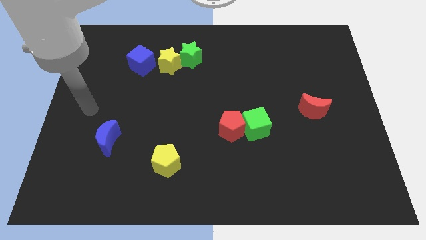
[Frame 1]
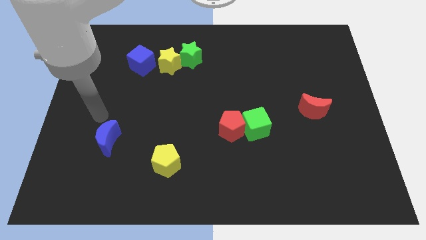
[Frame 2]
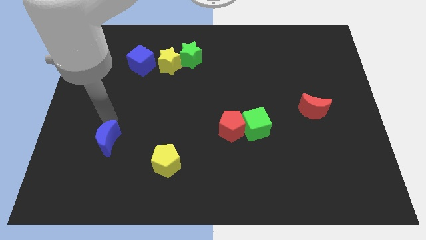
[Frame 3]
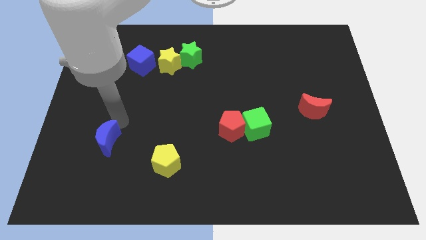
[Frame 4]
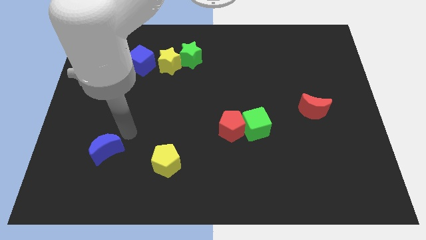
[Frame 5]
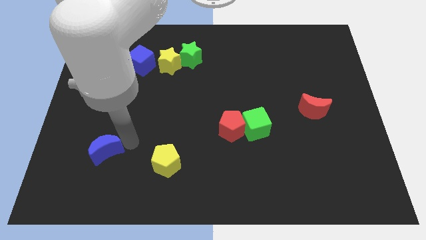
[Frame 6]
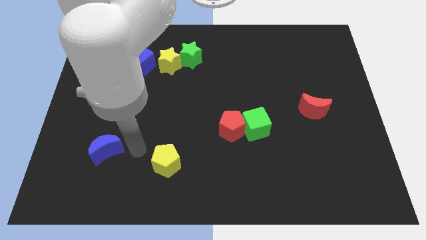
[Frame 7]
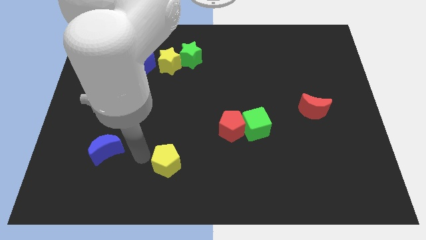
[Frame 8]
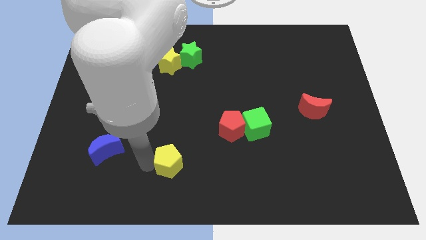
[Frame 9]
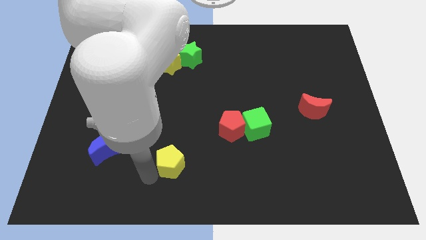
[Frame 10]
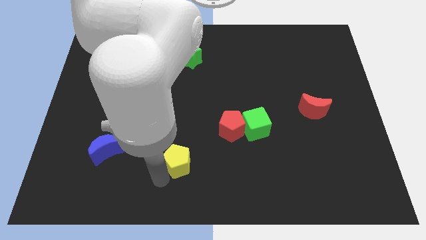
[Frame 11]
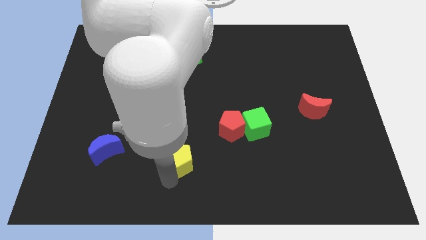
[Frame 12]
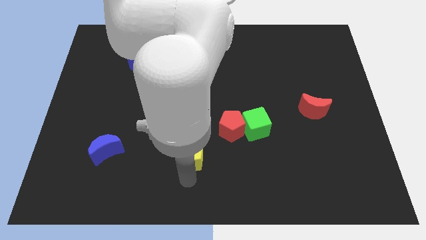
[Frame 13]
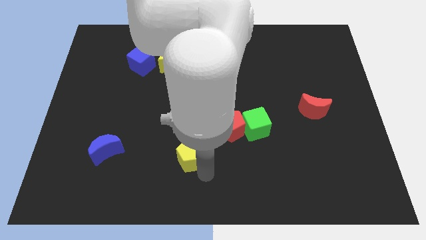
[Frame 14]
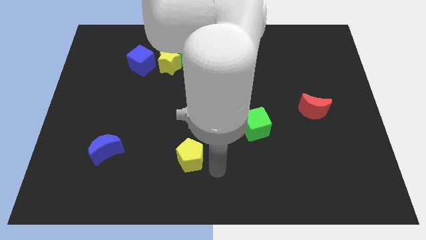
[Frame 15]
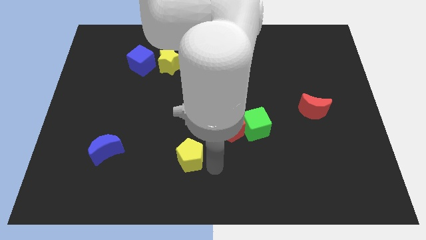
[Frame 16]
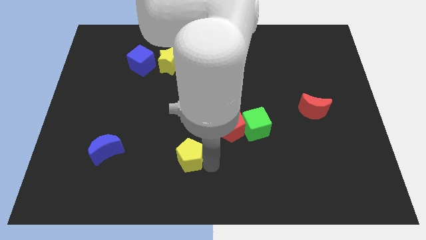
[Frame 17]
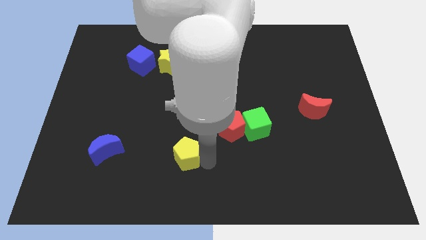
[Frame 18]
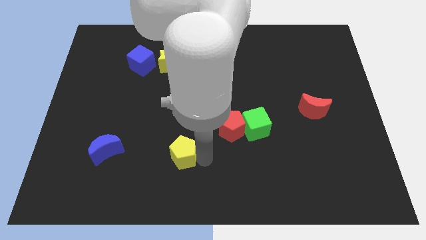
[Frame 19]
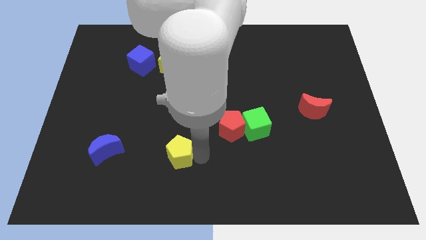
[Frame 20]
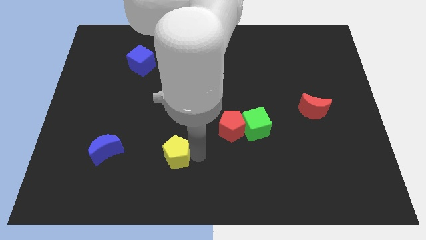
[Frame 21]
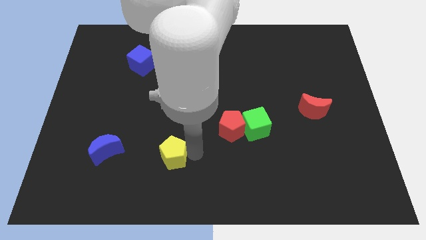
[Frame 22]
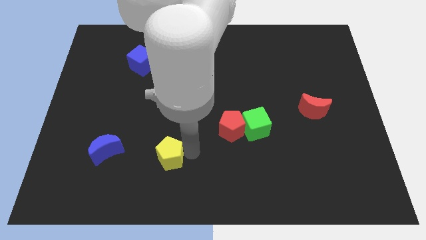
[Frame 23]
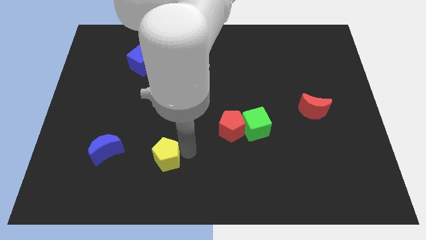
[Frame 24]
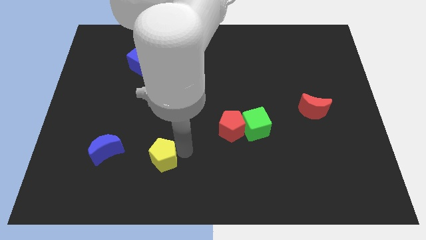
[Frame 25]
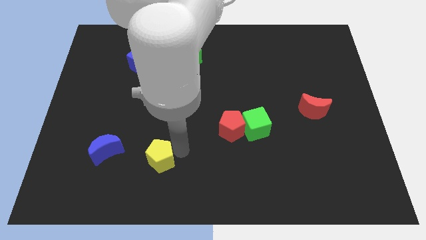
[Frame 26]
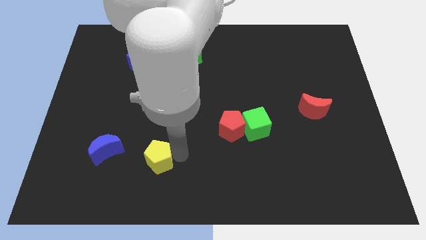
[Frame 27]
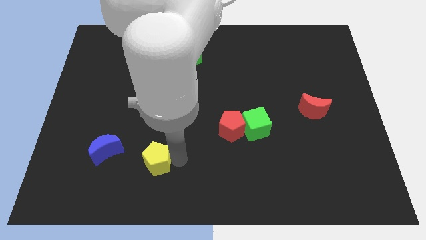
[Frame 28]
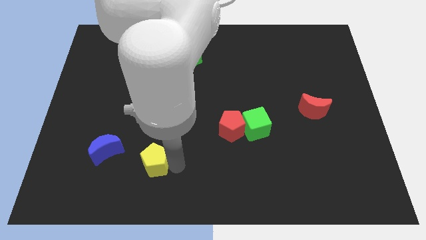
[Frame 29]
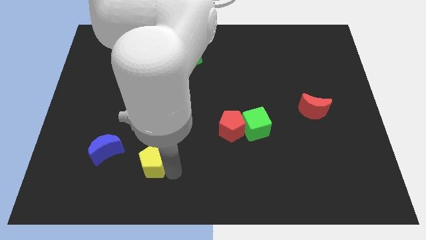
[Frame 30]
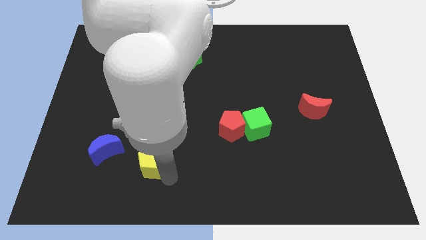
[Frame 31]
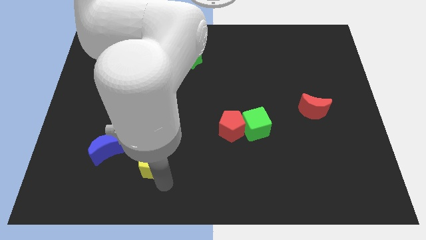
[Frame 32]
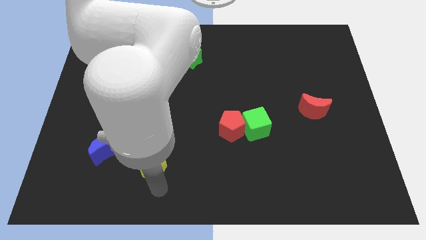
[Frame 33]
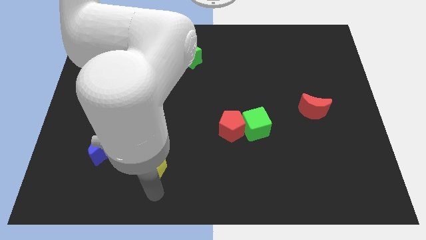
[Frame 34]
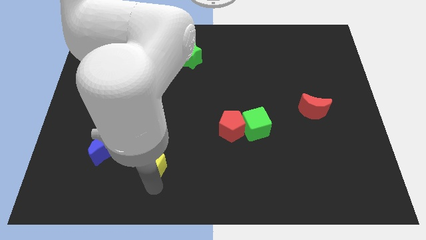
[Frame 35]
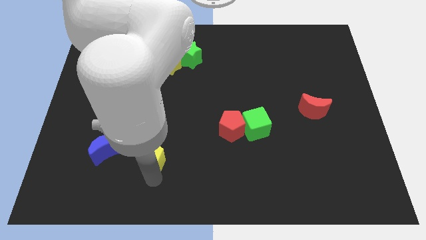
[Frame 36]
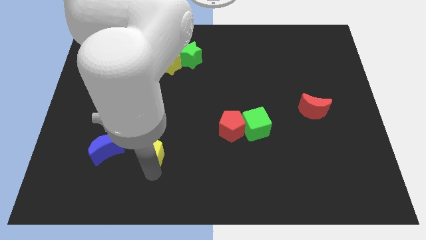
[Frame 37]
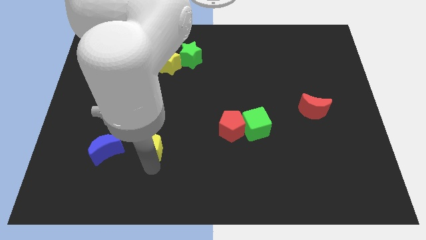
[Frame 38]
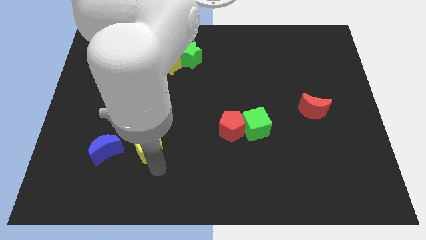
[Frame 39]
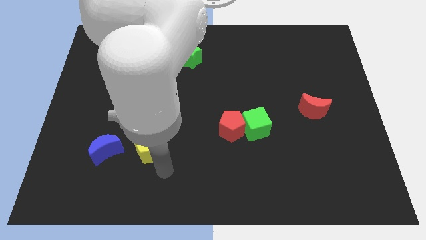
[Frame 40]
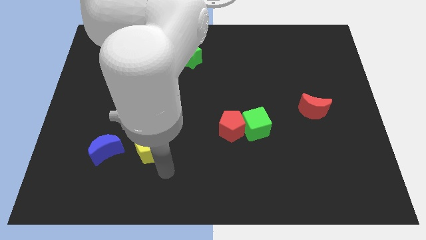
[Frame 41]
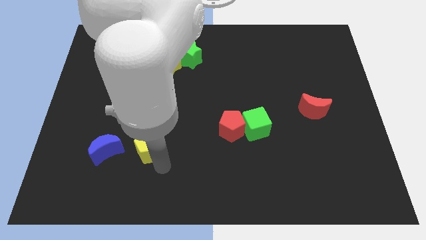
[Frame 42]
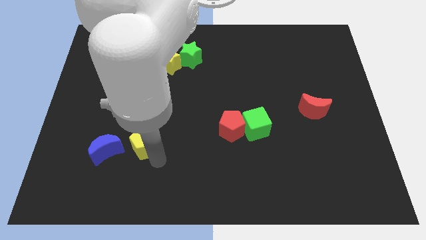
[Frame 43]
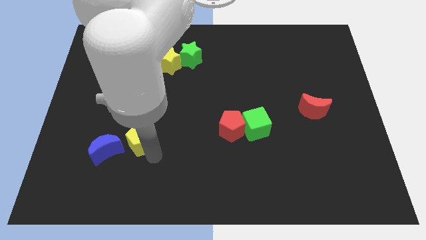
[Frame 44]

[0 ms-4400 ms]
slide the yellow pentagon a bit upwards and left

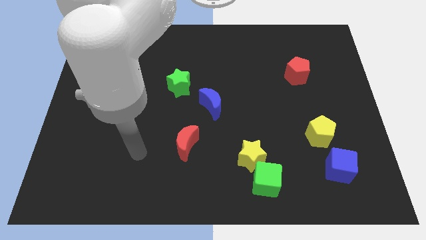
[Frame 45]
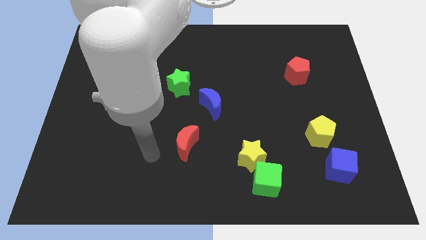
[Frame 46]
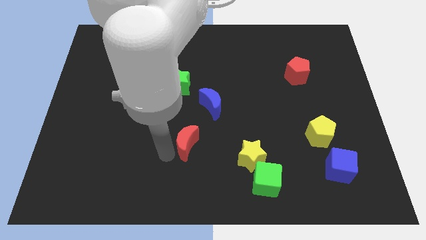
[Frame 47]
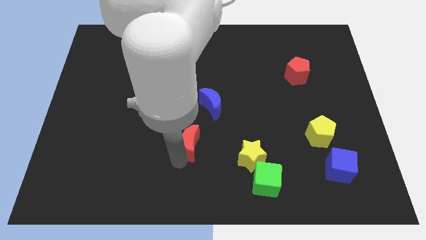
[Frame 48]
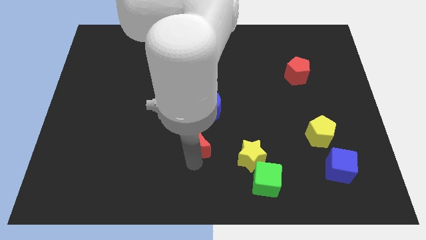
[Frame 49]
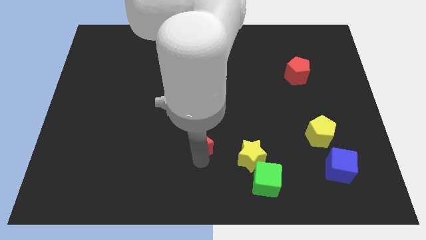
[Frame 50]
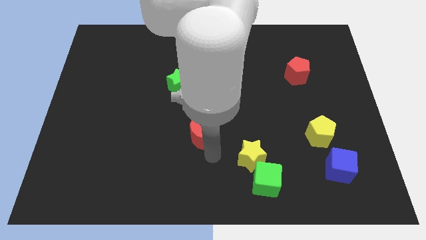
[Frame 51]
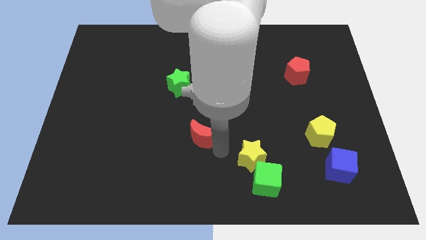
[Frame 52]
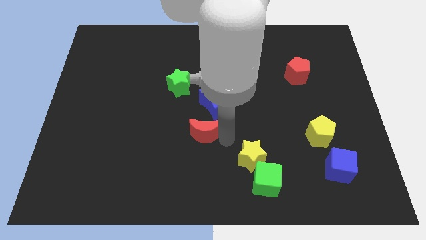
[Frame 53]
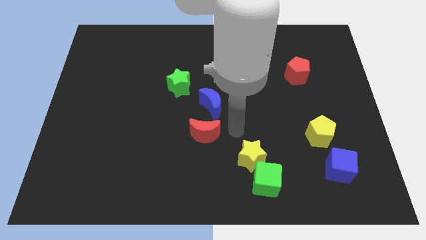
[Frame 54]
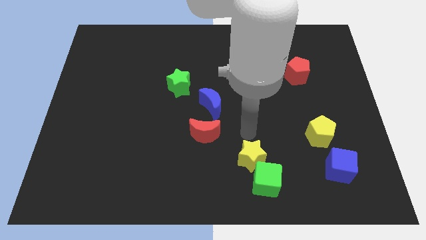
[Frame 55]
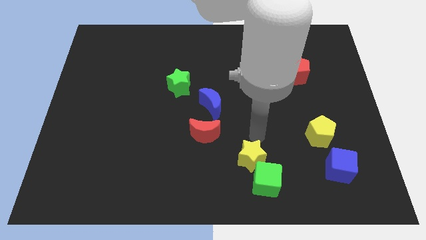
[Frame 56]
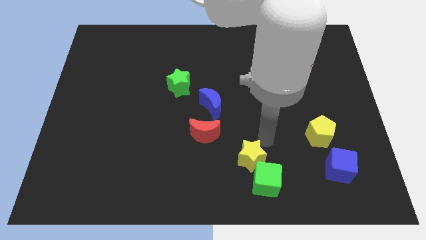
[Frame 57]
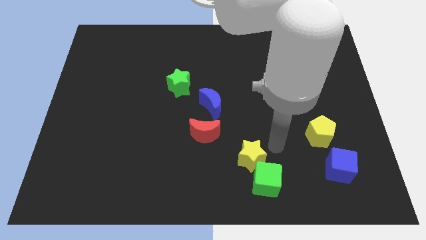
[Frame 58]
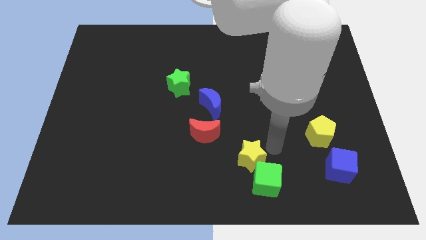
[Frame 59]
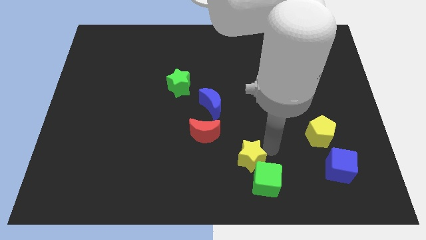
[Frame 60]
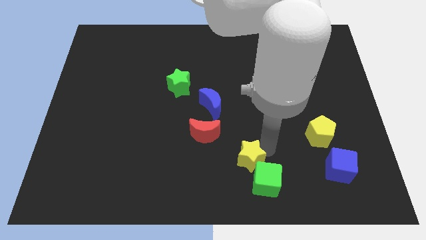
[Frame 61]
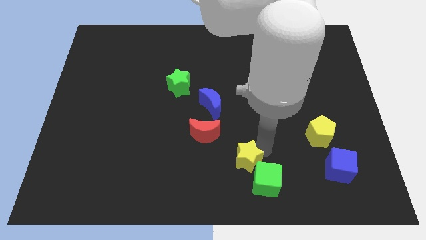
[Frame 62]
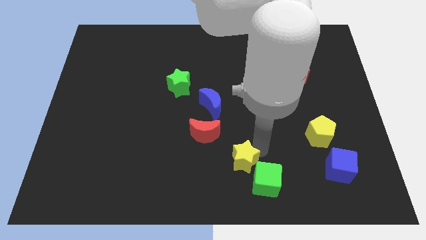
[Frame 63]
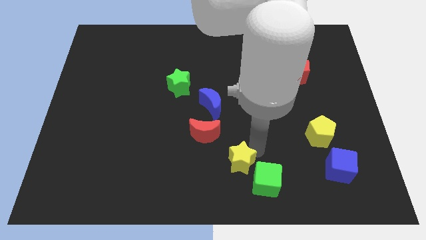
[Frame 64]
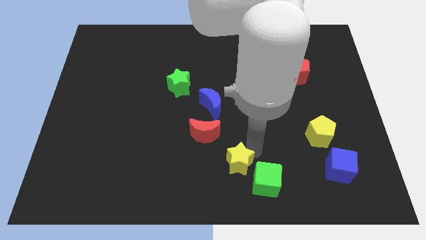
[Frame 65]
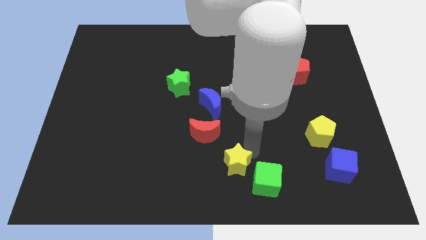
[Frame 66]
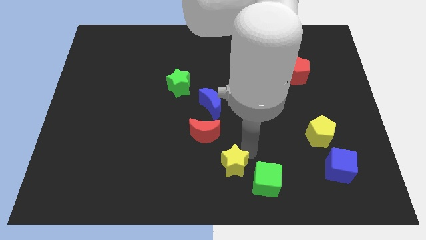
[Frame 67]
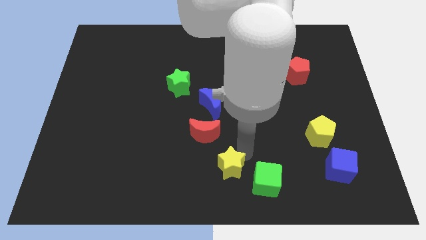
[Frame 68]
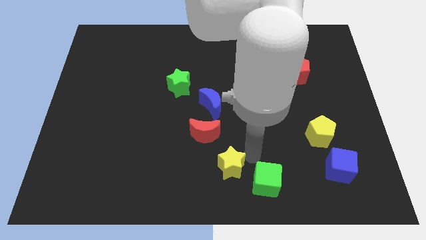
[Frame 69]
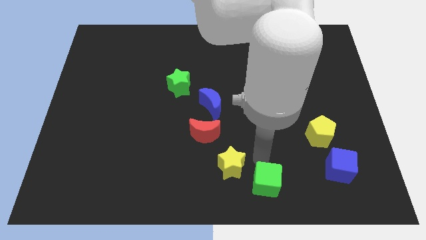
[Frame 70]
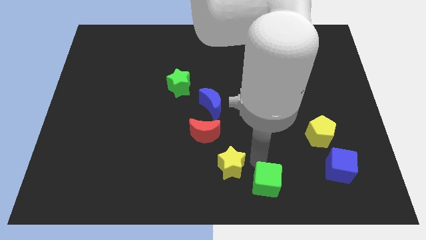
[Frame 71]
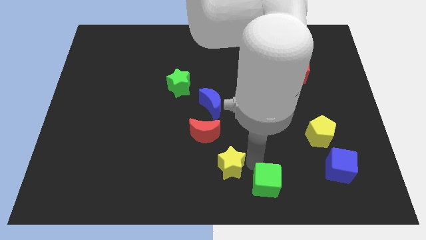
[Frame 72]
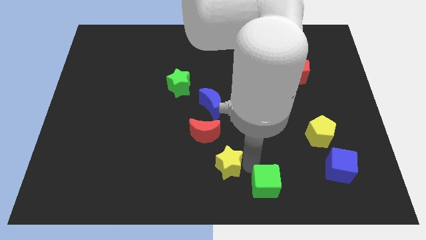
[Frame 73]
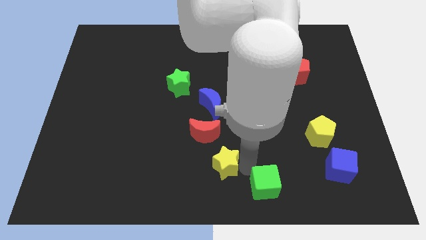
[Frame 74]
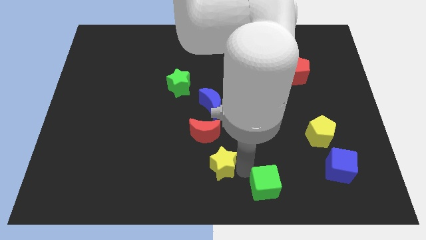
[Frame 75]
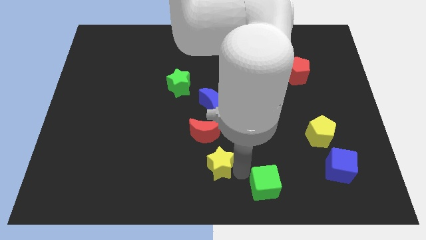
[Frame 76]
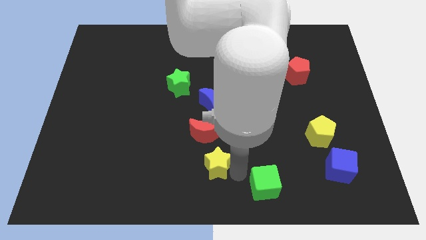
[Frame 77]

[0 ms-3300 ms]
move the yellow star a little bit to the left

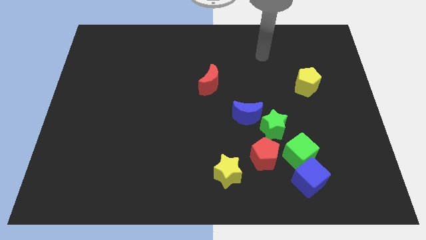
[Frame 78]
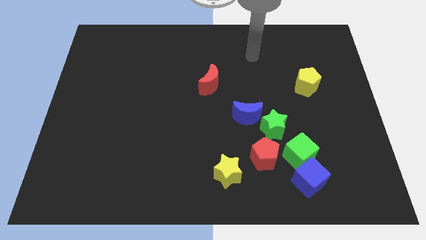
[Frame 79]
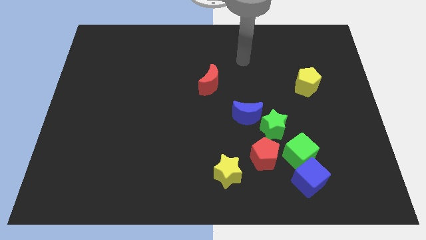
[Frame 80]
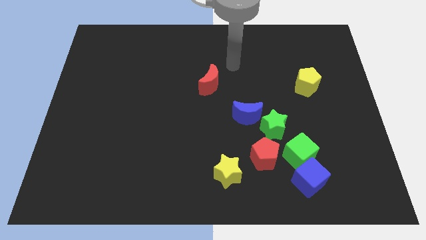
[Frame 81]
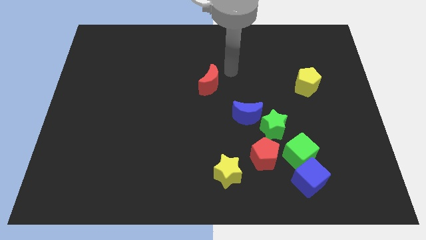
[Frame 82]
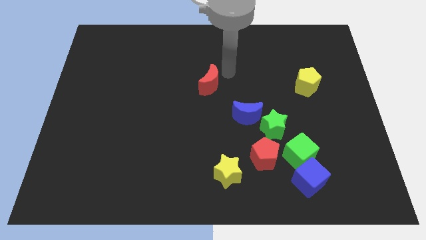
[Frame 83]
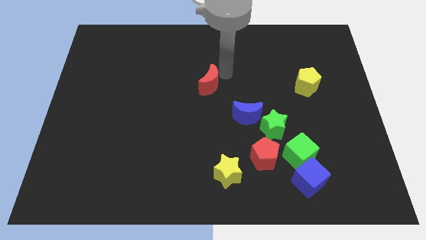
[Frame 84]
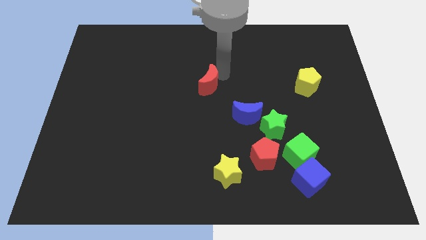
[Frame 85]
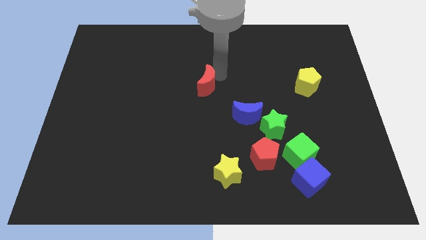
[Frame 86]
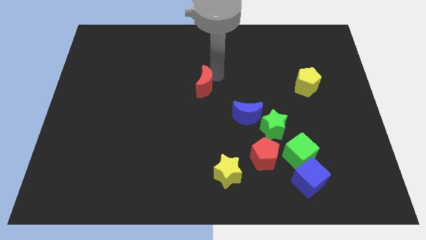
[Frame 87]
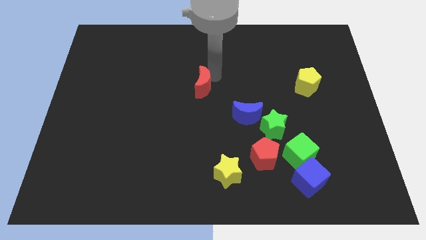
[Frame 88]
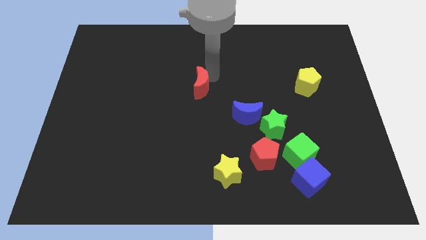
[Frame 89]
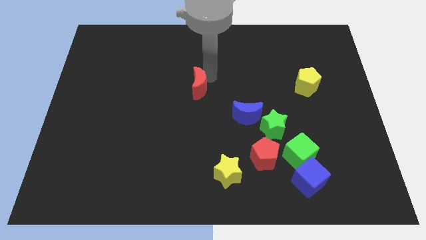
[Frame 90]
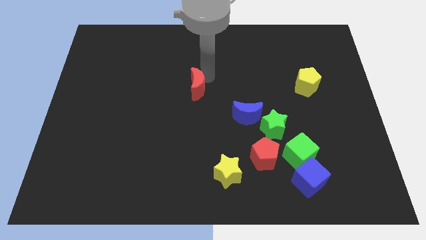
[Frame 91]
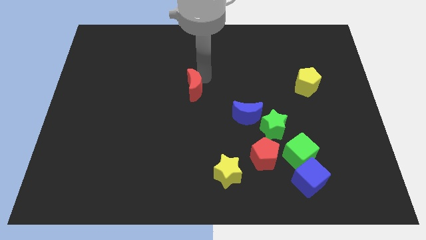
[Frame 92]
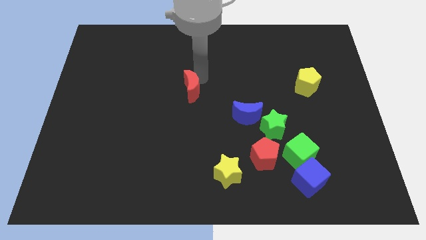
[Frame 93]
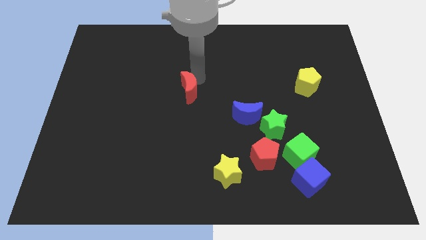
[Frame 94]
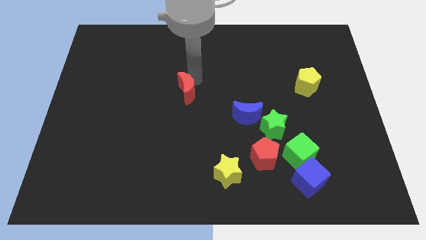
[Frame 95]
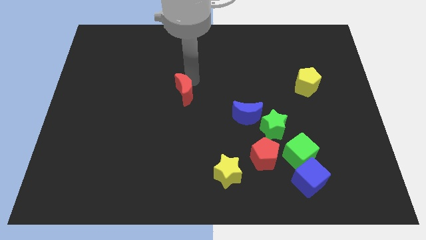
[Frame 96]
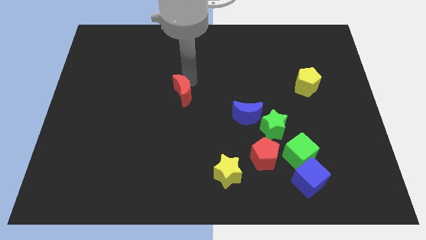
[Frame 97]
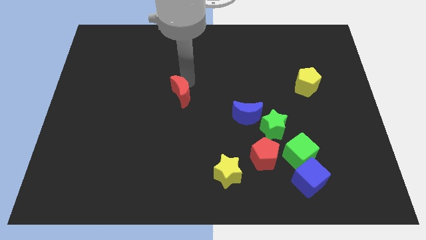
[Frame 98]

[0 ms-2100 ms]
slide the red moon down and left somewhat
